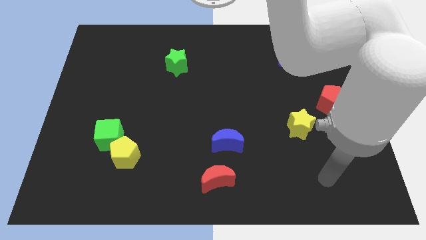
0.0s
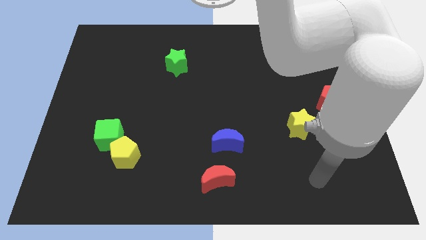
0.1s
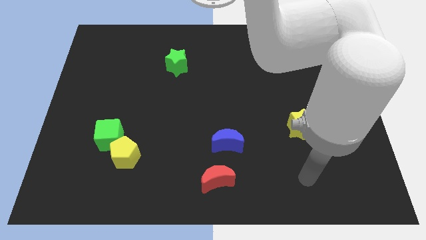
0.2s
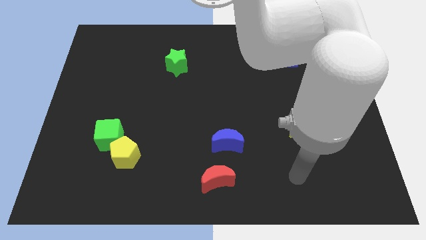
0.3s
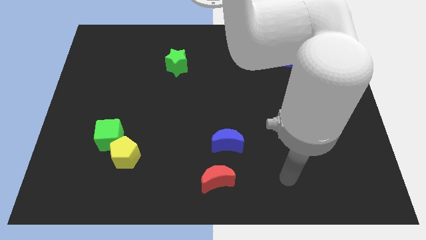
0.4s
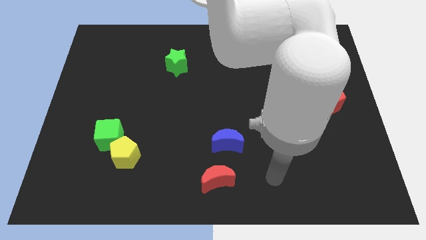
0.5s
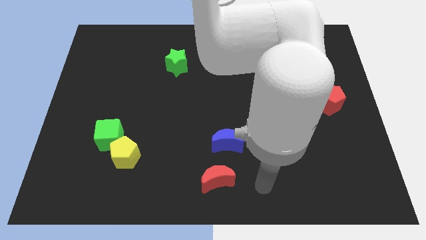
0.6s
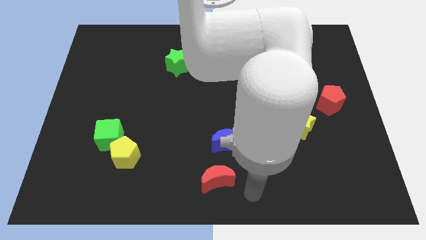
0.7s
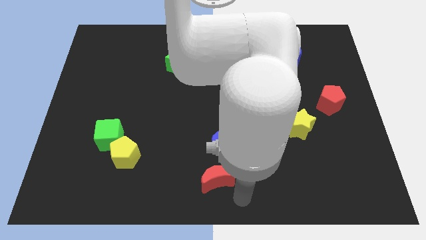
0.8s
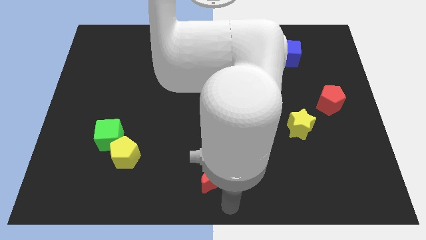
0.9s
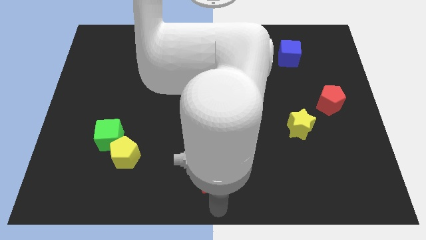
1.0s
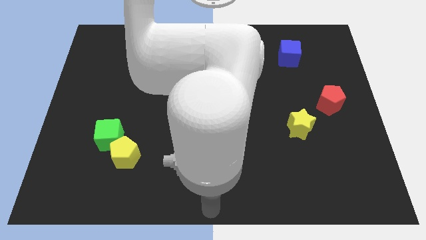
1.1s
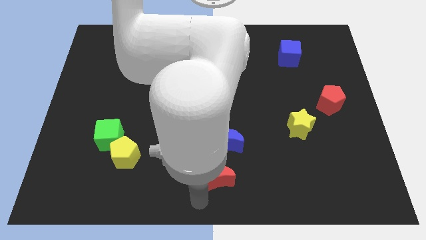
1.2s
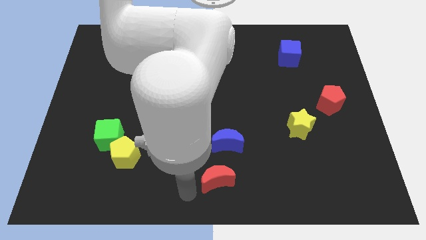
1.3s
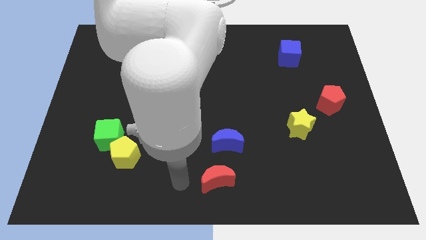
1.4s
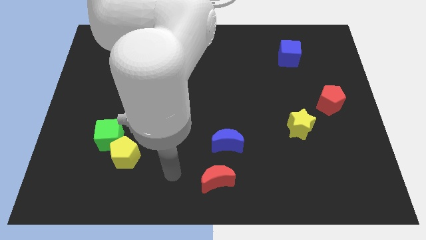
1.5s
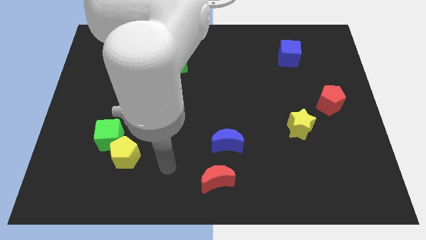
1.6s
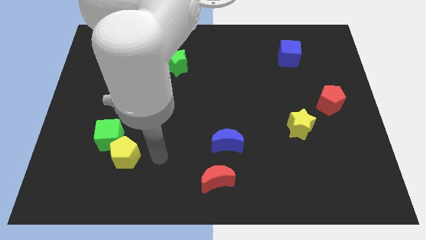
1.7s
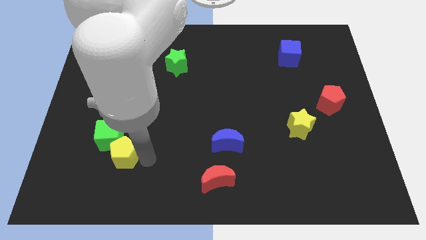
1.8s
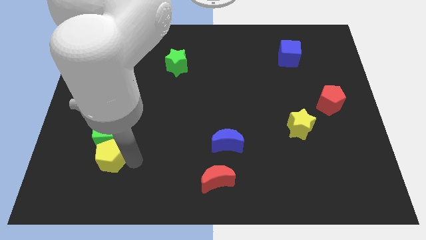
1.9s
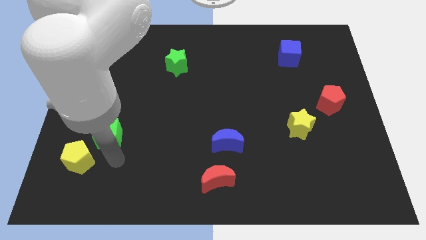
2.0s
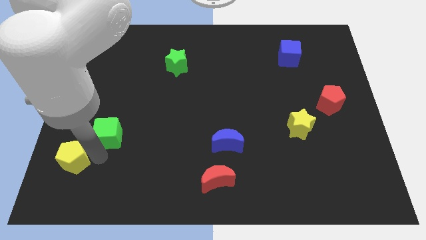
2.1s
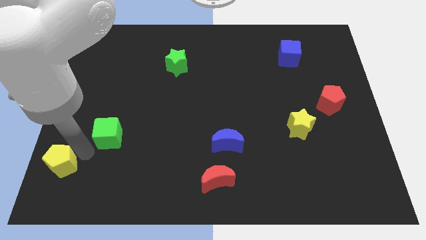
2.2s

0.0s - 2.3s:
separate the green cube from the yellow pentagon

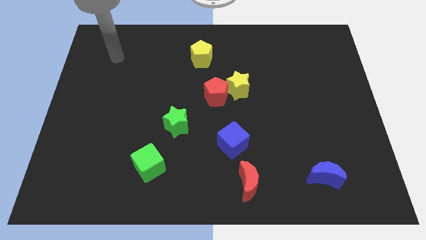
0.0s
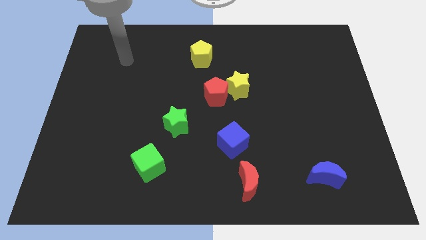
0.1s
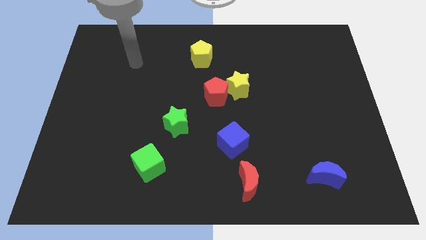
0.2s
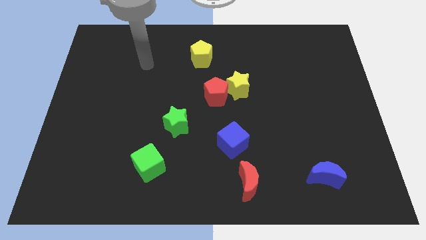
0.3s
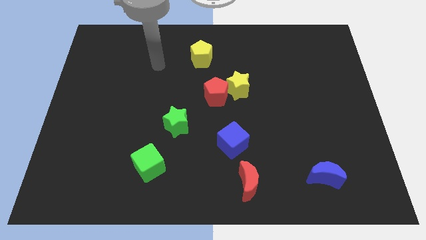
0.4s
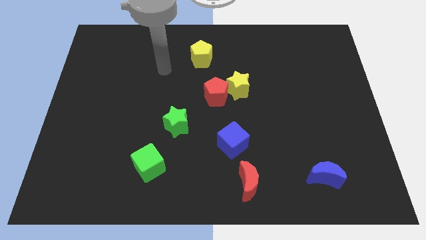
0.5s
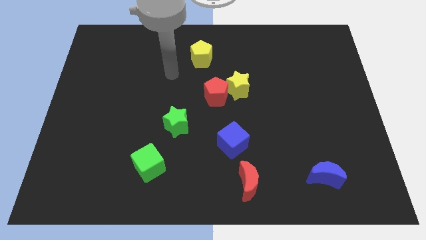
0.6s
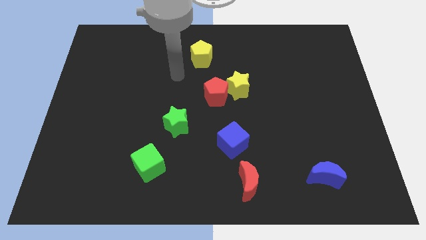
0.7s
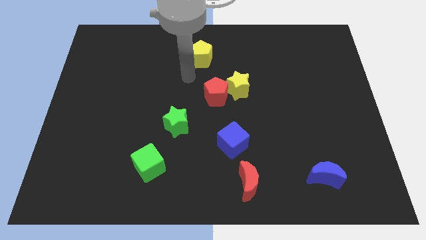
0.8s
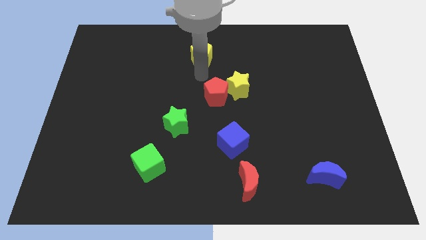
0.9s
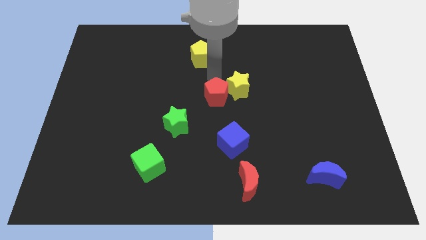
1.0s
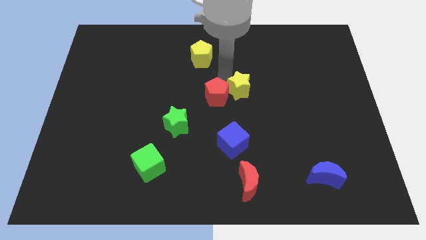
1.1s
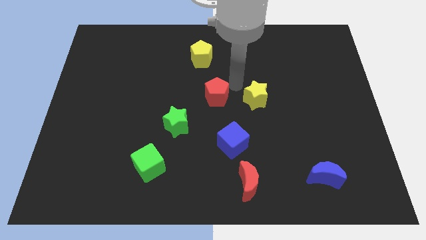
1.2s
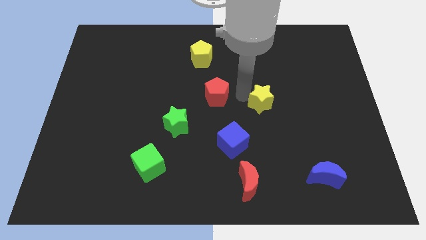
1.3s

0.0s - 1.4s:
pull the red pentagon apart from the yellow star

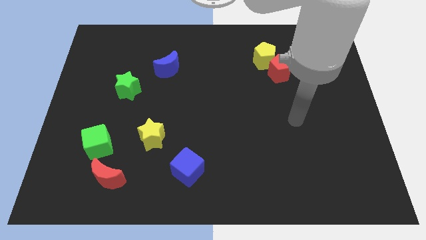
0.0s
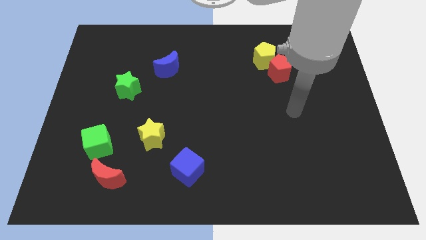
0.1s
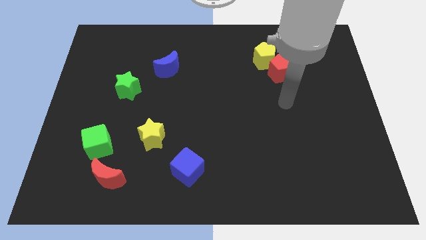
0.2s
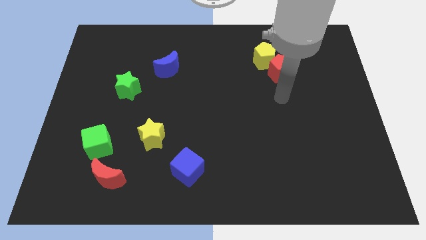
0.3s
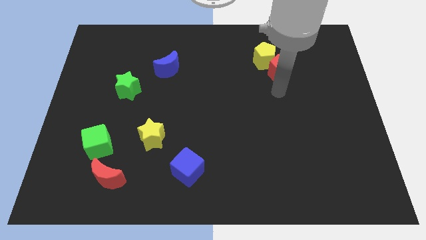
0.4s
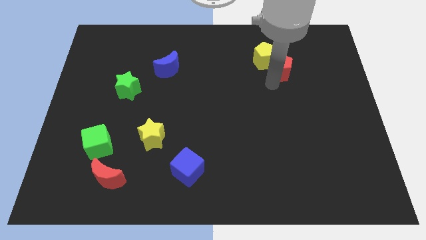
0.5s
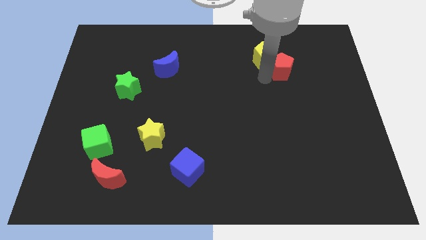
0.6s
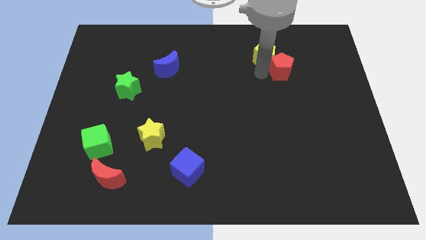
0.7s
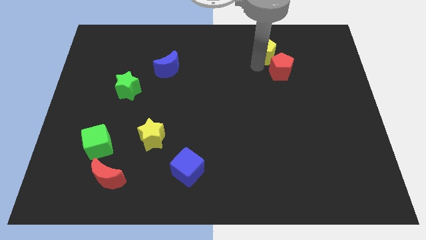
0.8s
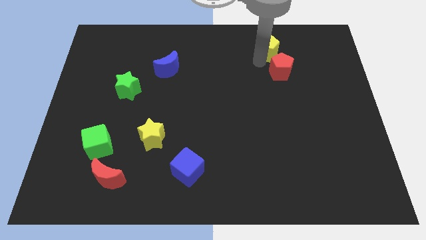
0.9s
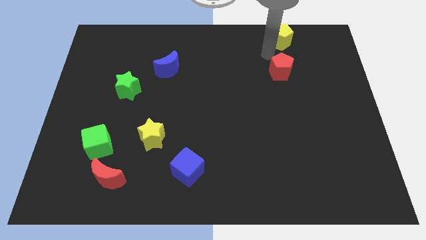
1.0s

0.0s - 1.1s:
pull the red pentagon apart from the yellow pentagon

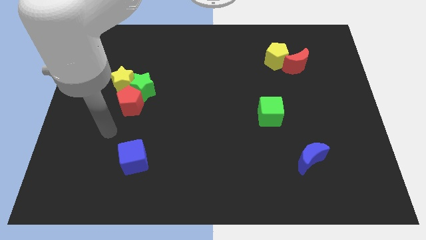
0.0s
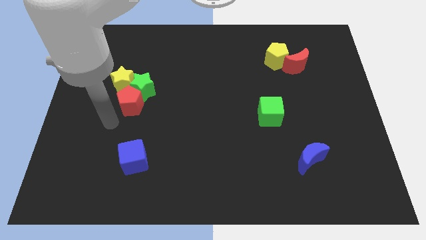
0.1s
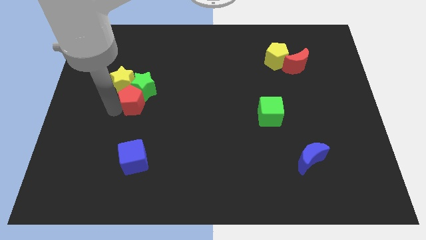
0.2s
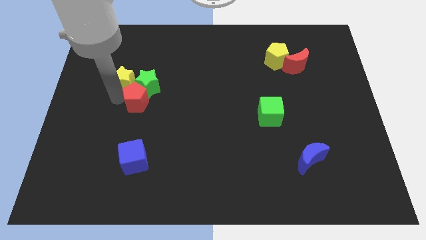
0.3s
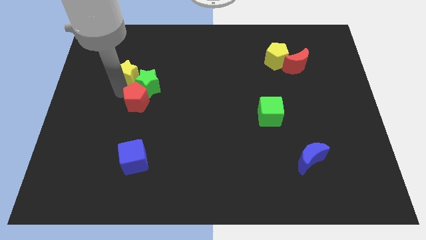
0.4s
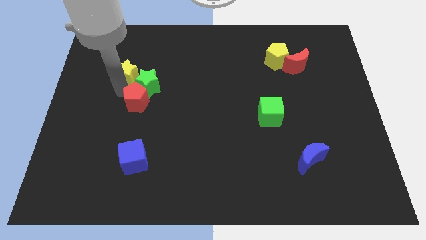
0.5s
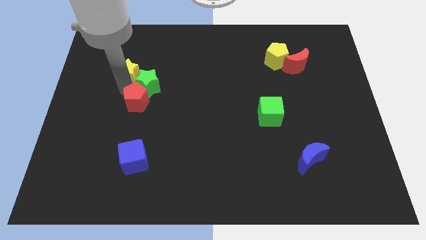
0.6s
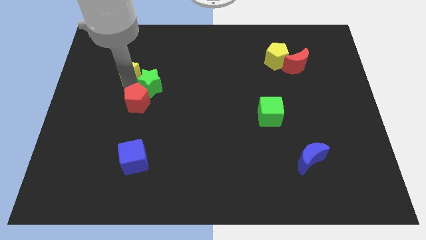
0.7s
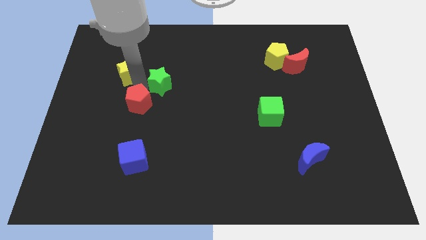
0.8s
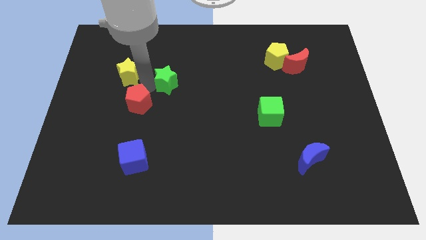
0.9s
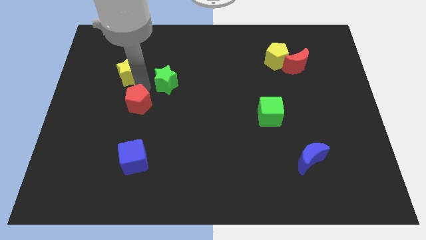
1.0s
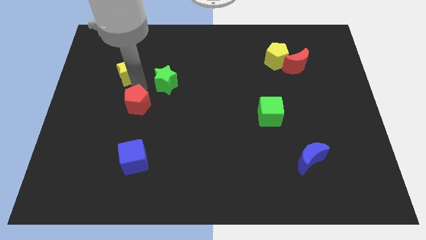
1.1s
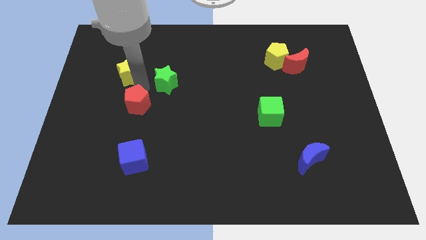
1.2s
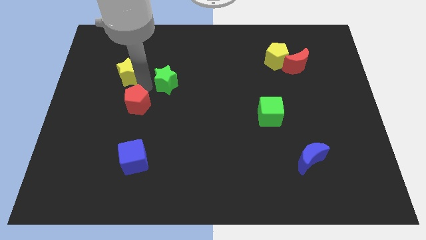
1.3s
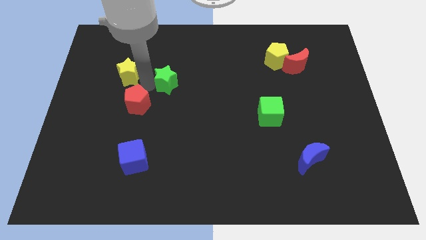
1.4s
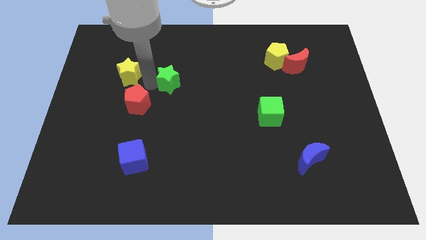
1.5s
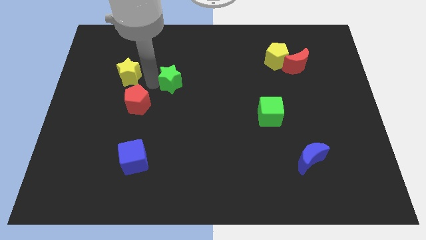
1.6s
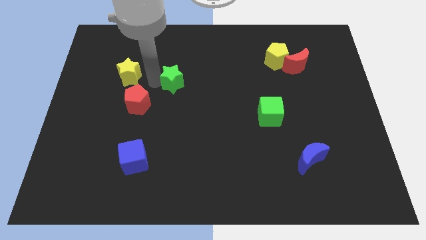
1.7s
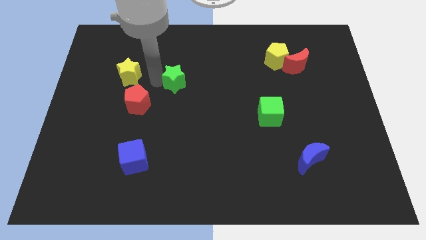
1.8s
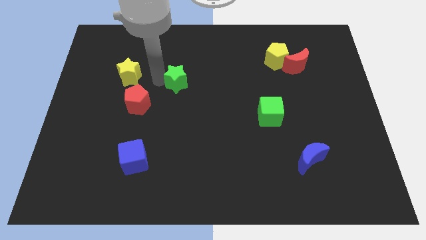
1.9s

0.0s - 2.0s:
pull the green star apart from the red pentagon and yellow star

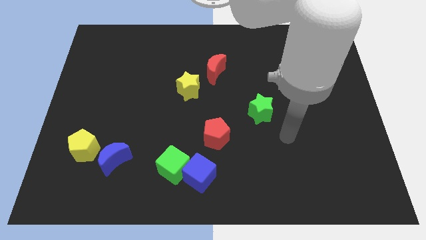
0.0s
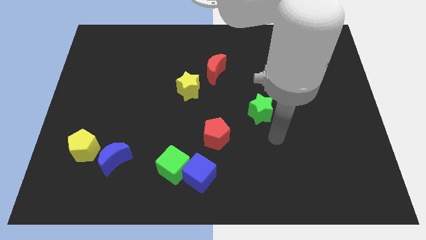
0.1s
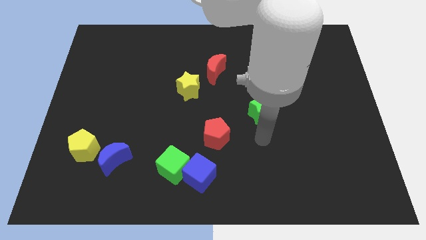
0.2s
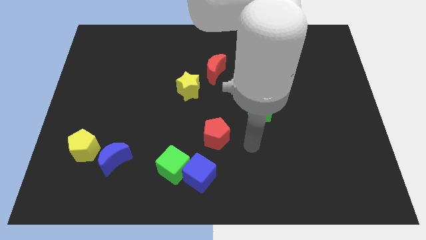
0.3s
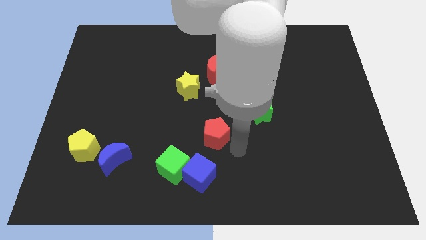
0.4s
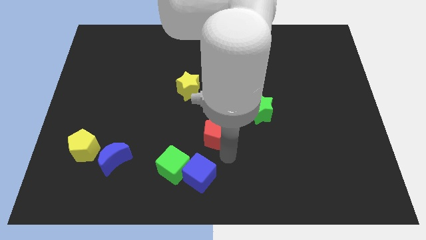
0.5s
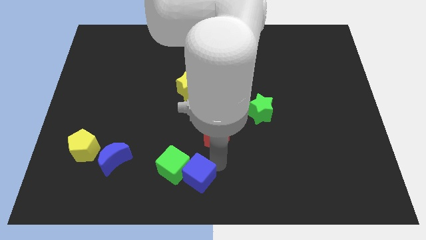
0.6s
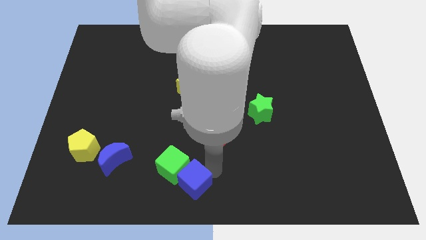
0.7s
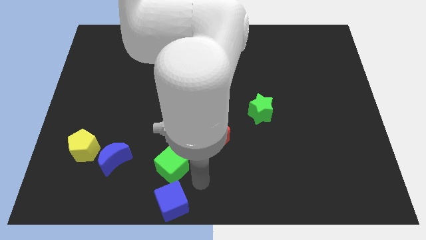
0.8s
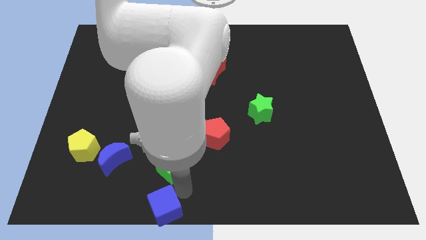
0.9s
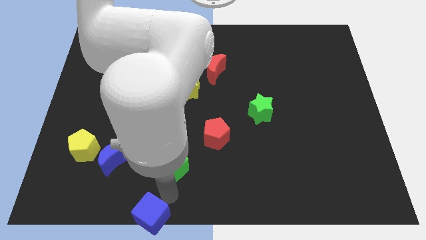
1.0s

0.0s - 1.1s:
move the green cube away from the blue cube

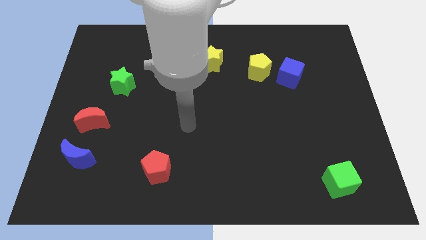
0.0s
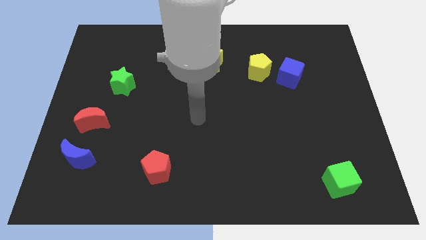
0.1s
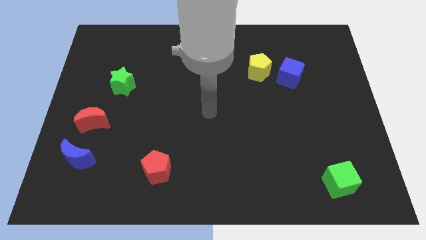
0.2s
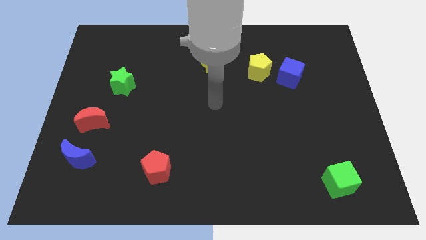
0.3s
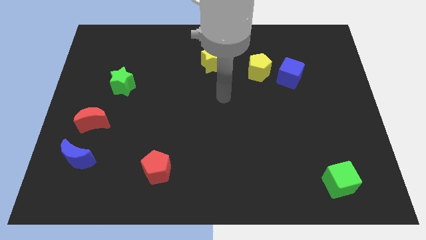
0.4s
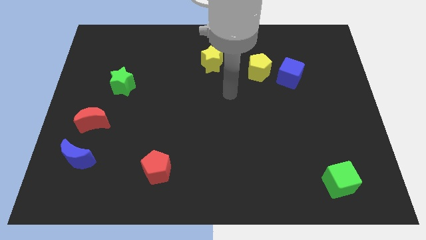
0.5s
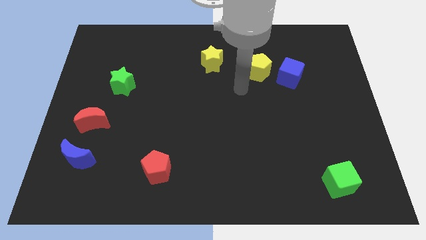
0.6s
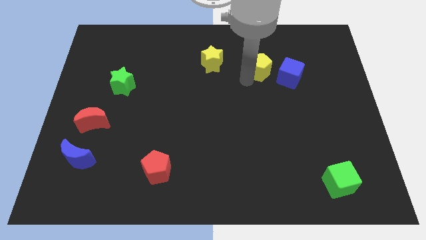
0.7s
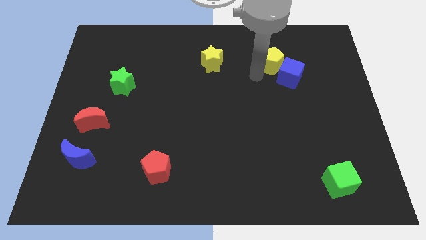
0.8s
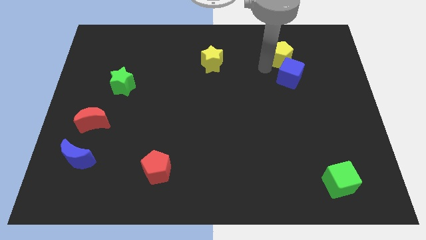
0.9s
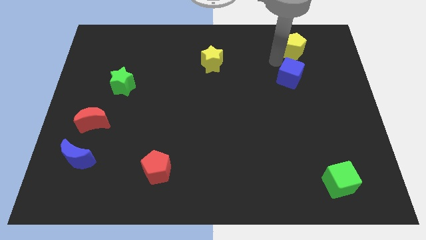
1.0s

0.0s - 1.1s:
move the blue cube away from the yellow pentagon

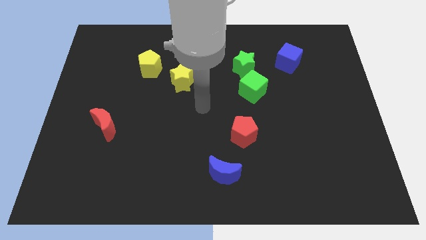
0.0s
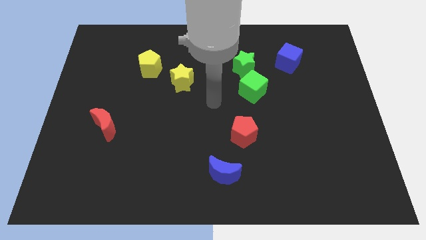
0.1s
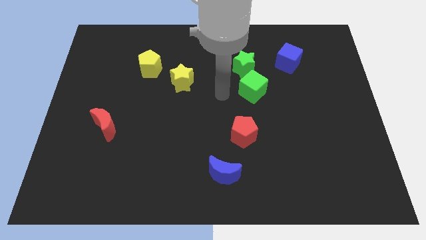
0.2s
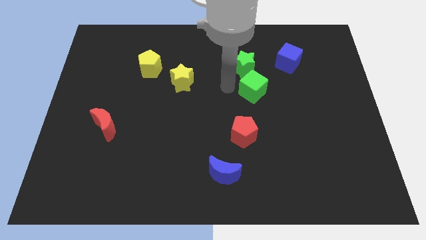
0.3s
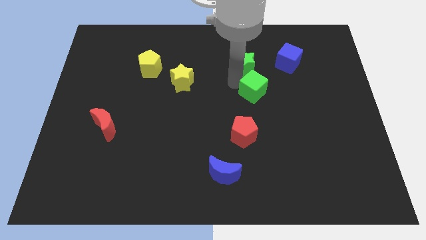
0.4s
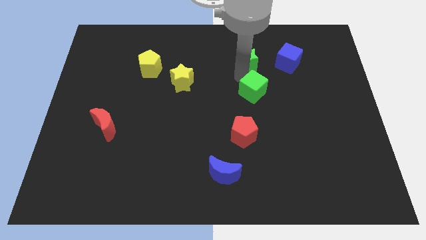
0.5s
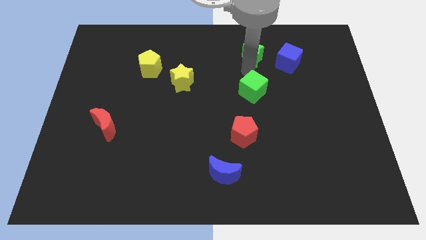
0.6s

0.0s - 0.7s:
move the green cube away from the green star
